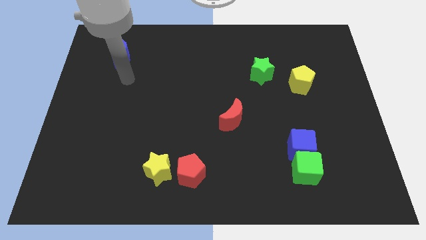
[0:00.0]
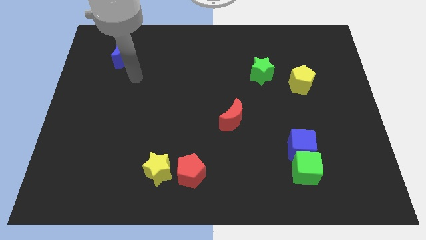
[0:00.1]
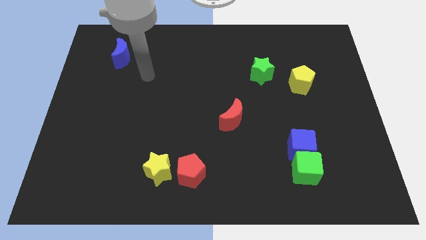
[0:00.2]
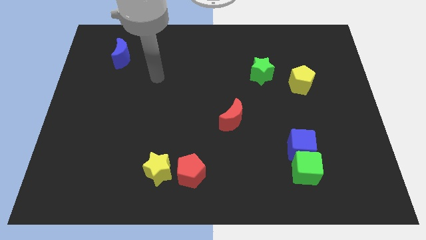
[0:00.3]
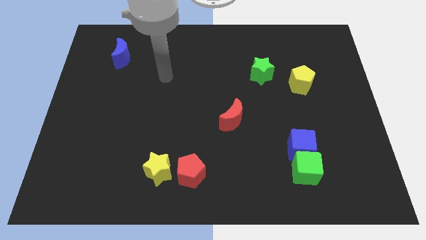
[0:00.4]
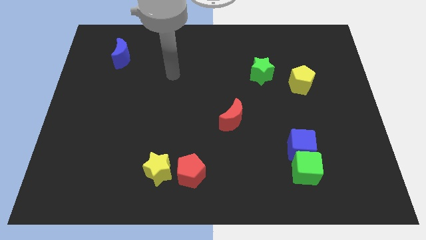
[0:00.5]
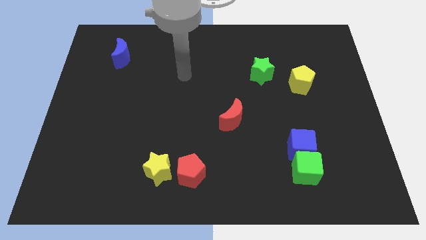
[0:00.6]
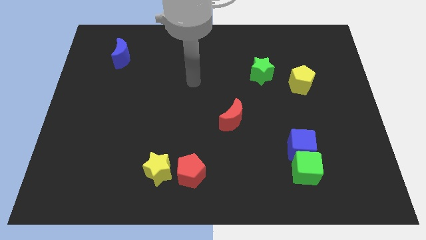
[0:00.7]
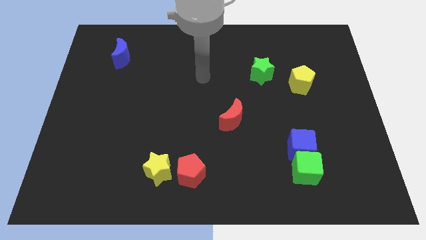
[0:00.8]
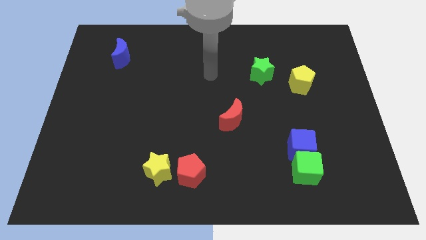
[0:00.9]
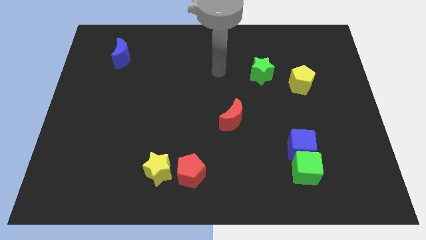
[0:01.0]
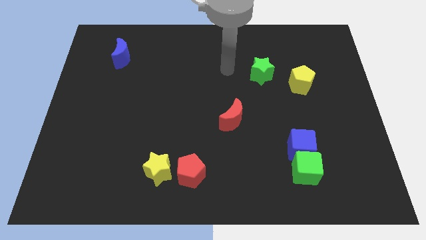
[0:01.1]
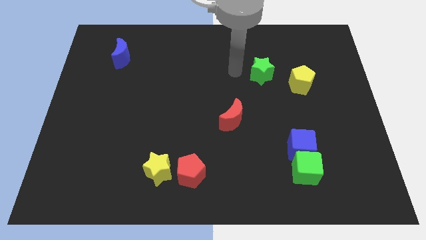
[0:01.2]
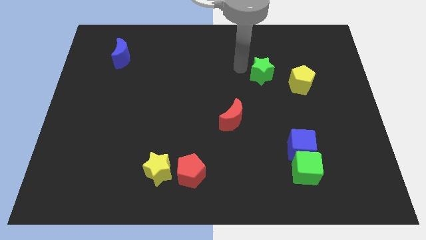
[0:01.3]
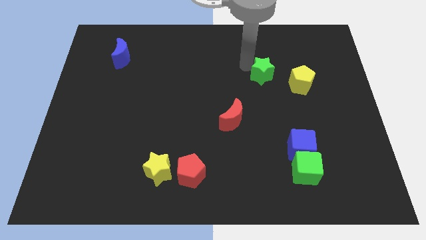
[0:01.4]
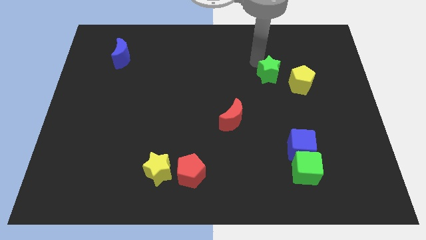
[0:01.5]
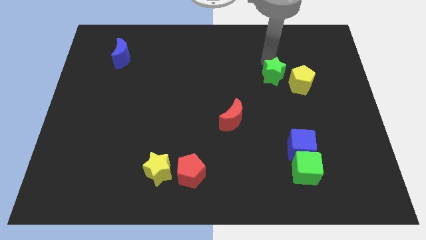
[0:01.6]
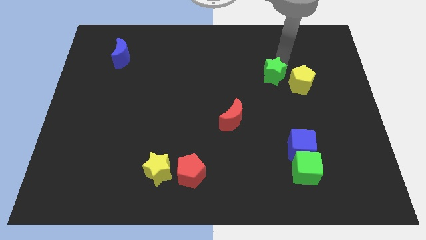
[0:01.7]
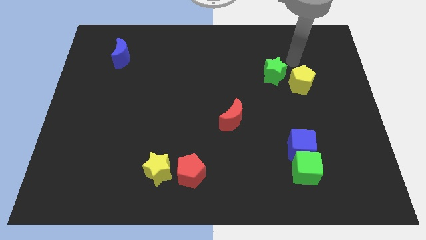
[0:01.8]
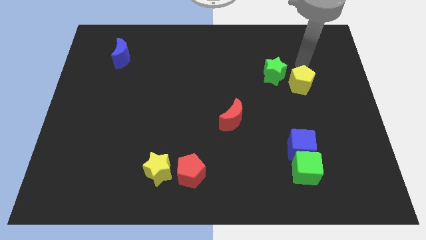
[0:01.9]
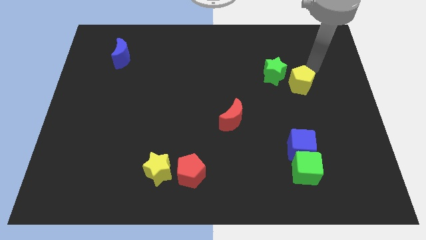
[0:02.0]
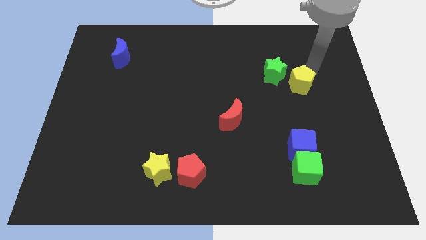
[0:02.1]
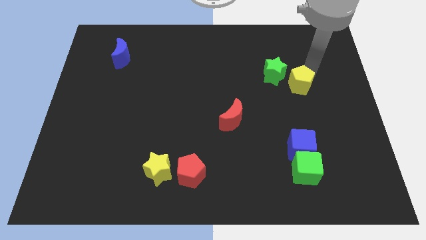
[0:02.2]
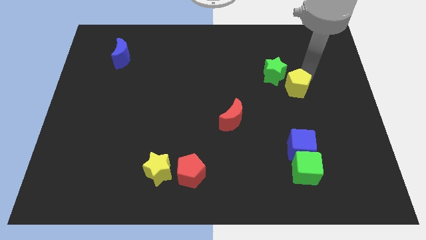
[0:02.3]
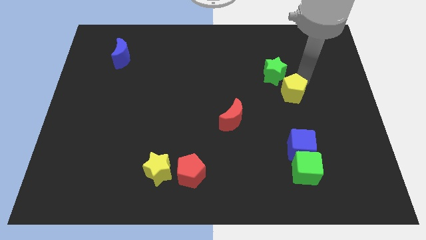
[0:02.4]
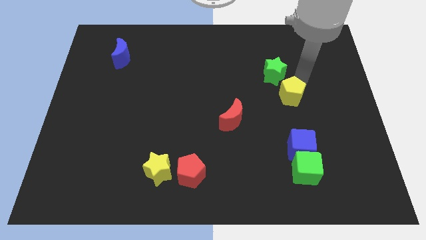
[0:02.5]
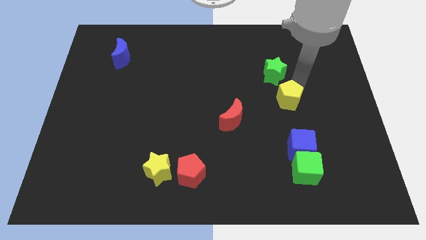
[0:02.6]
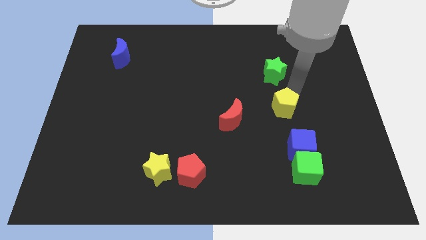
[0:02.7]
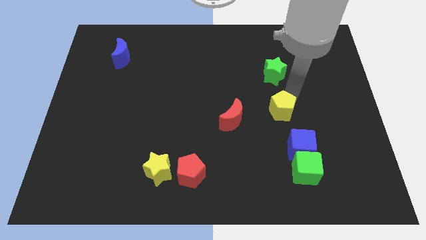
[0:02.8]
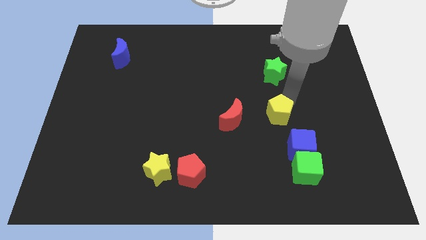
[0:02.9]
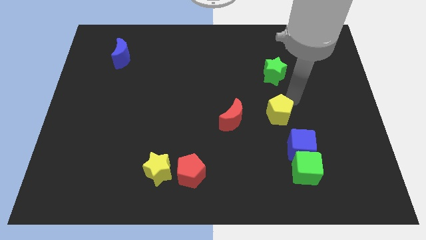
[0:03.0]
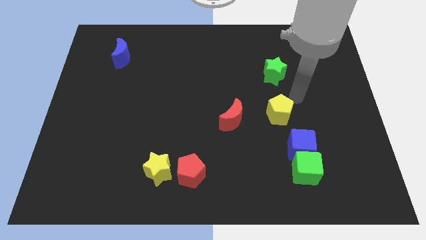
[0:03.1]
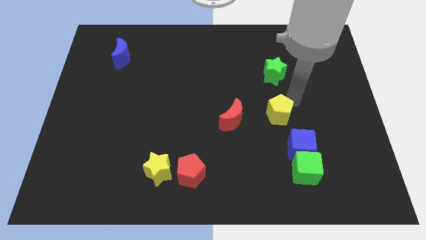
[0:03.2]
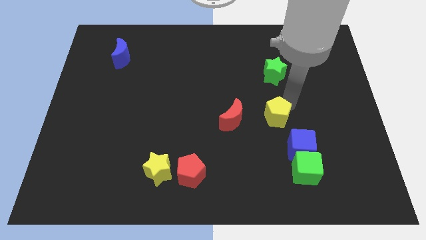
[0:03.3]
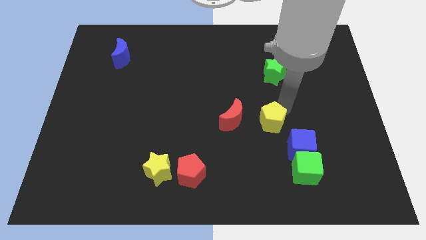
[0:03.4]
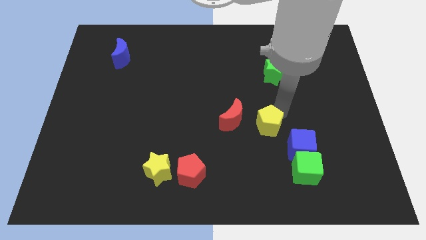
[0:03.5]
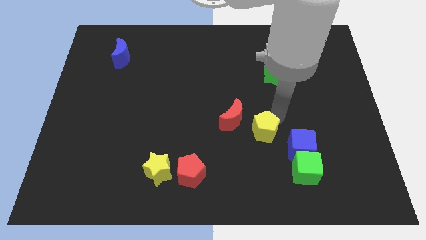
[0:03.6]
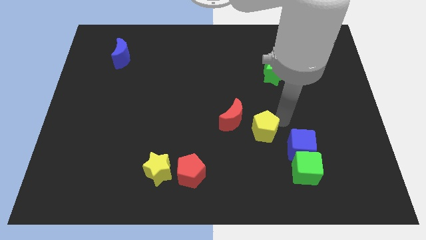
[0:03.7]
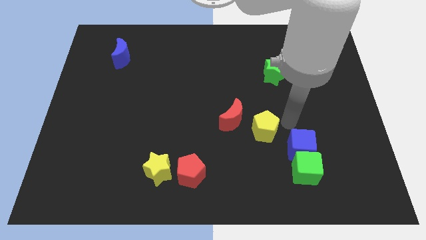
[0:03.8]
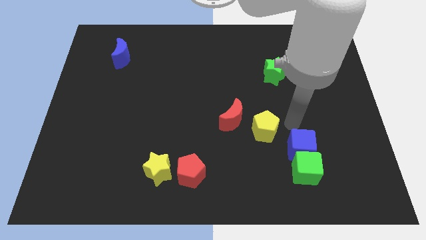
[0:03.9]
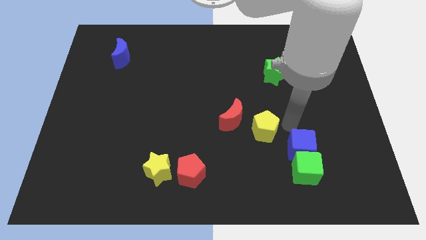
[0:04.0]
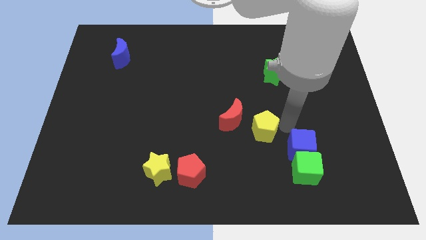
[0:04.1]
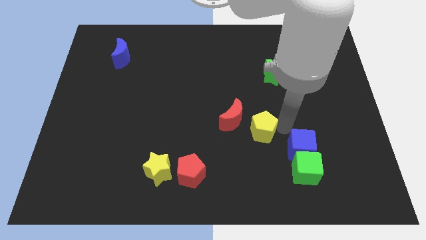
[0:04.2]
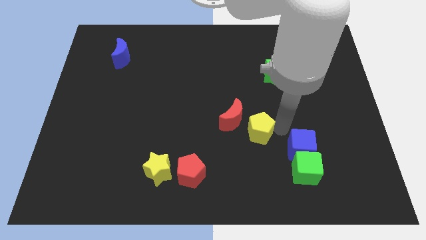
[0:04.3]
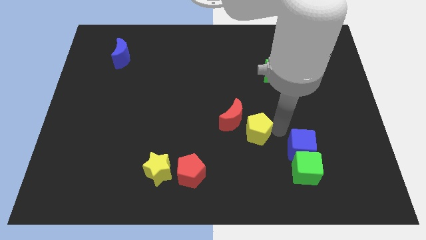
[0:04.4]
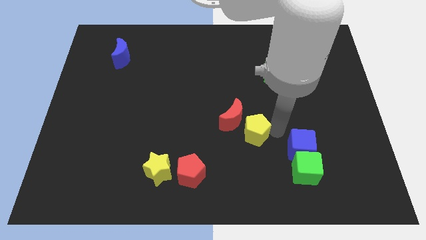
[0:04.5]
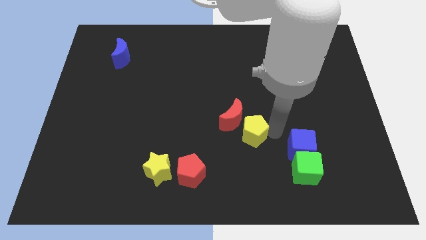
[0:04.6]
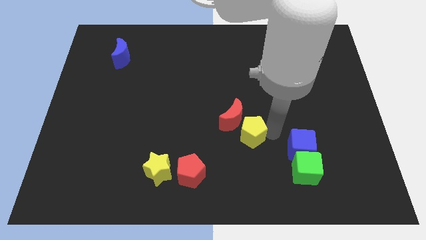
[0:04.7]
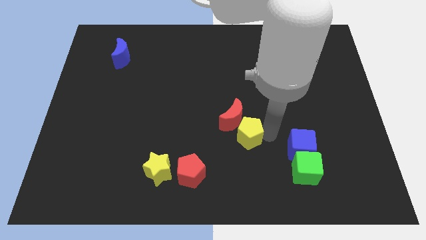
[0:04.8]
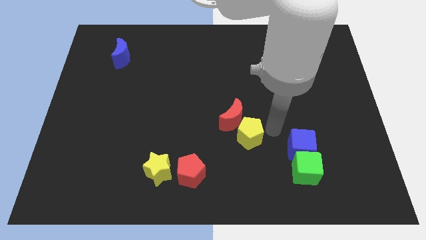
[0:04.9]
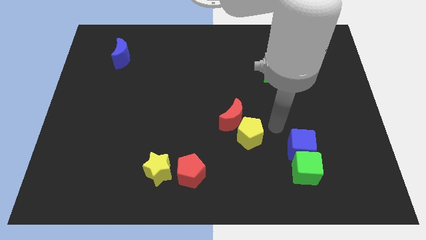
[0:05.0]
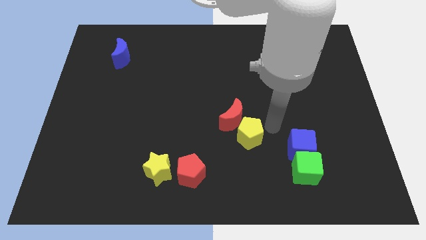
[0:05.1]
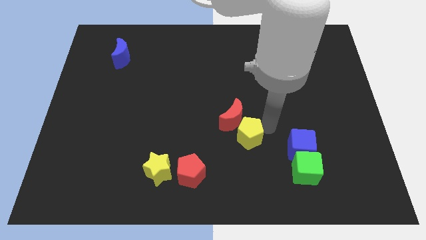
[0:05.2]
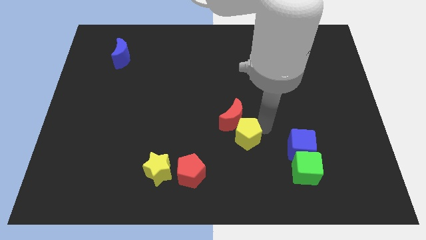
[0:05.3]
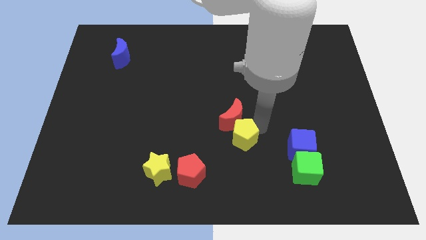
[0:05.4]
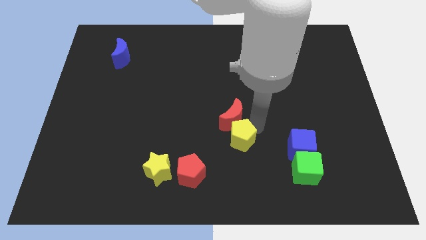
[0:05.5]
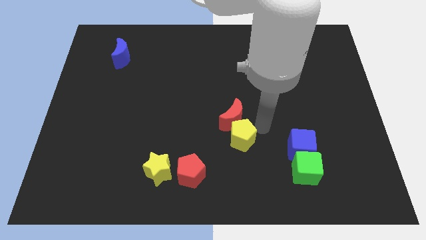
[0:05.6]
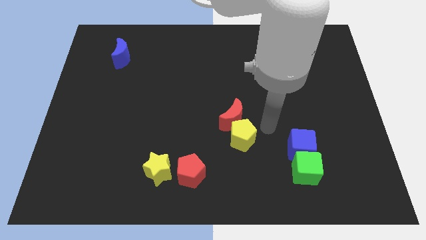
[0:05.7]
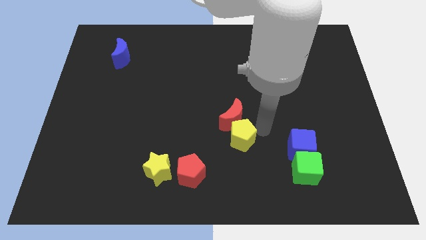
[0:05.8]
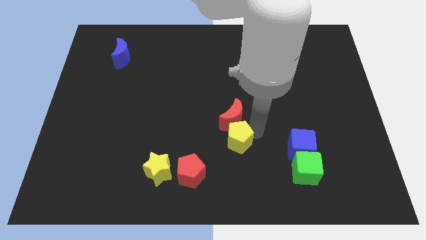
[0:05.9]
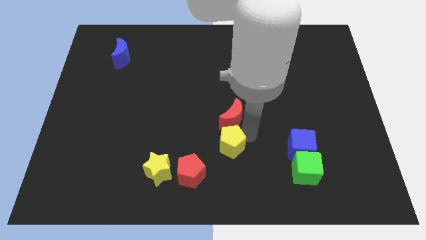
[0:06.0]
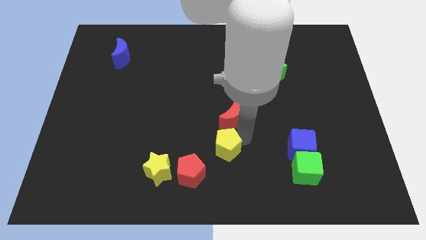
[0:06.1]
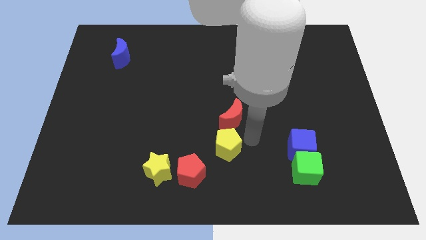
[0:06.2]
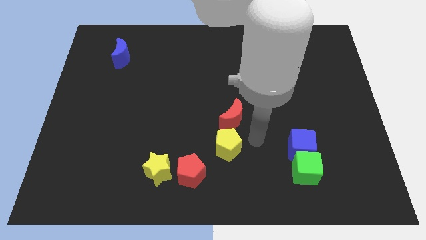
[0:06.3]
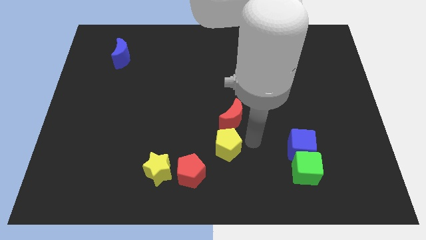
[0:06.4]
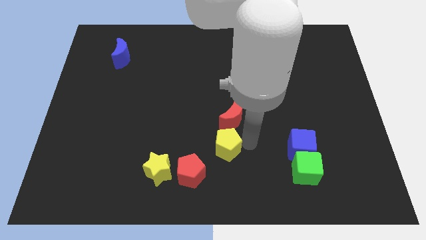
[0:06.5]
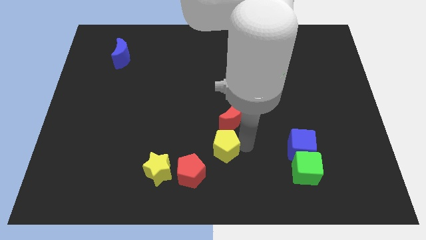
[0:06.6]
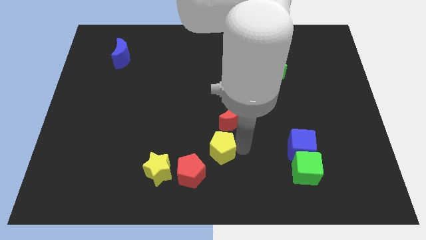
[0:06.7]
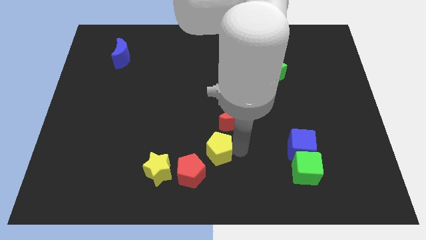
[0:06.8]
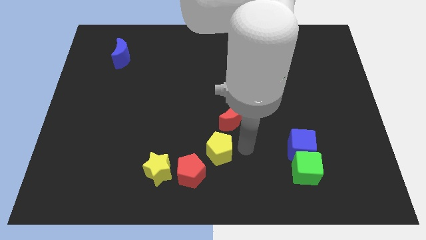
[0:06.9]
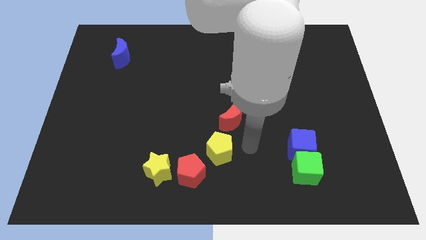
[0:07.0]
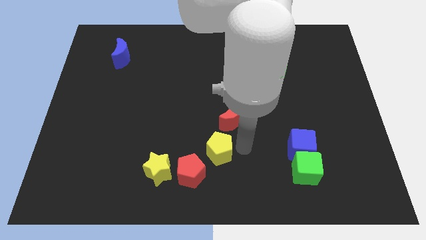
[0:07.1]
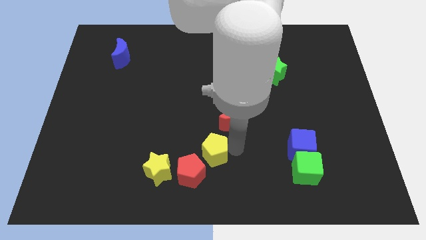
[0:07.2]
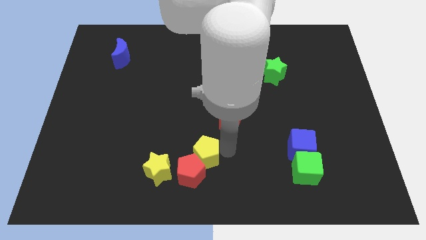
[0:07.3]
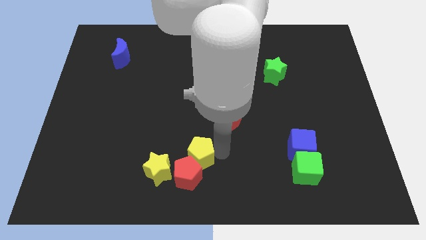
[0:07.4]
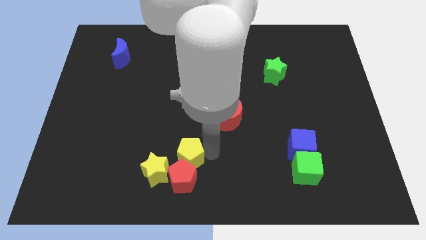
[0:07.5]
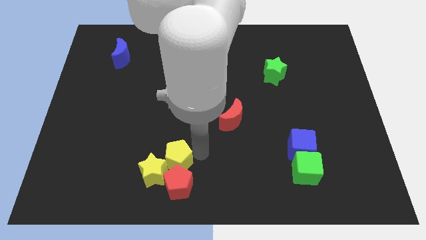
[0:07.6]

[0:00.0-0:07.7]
put the yellow pentagon next to the yellow star

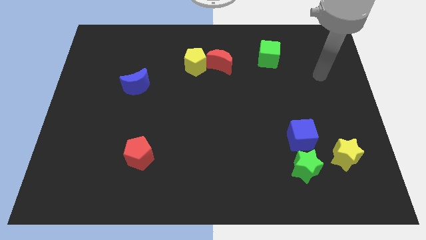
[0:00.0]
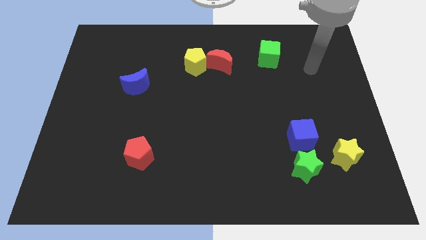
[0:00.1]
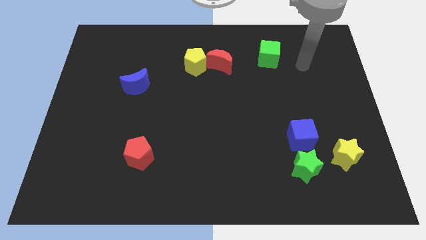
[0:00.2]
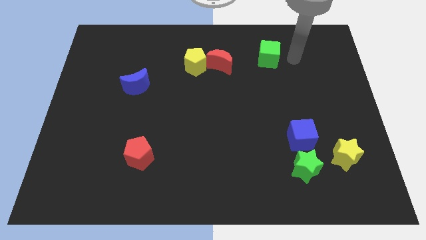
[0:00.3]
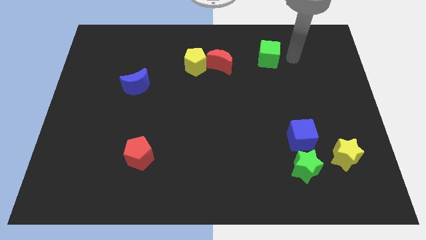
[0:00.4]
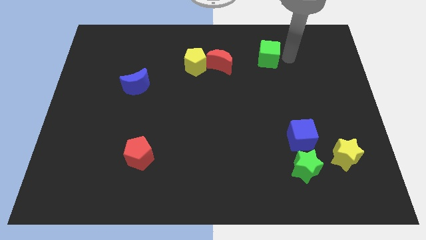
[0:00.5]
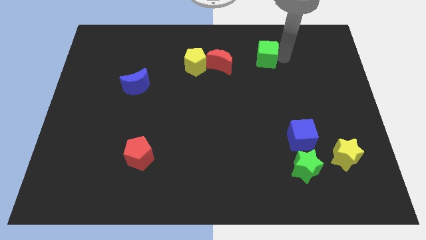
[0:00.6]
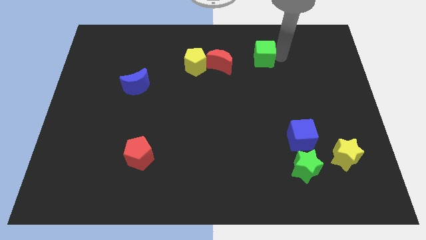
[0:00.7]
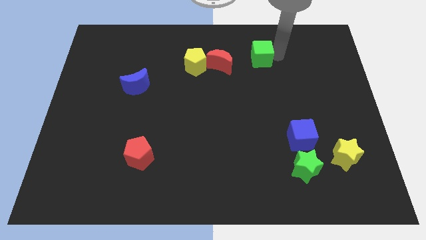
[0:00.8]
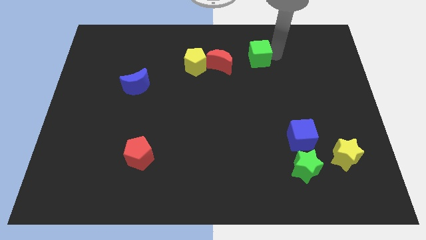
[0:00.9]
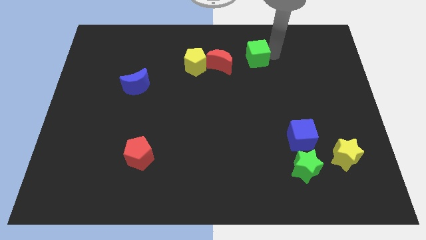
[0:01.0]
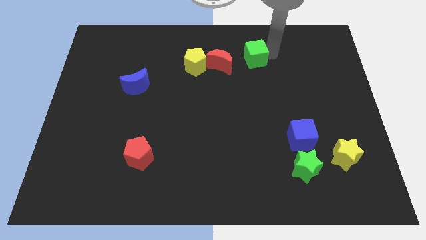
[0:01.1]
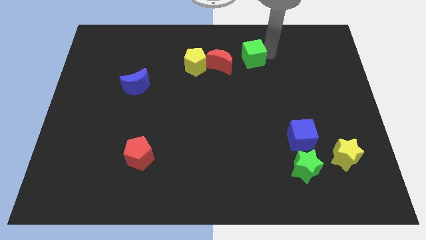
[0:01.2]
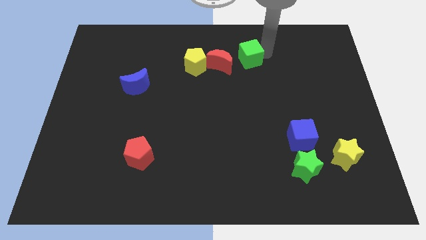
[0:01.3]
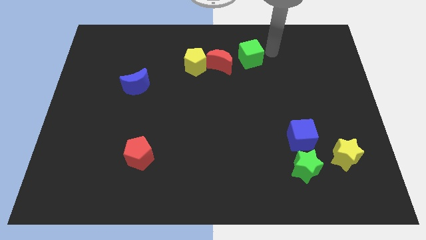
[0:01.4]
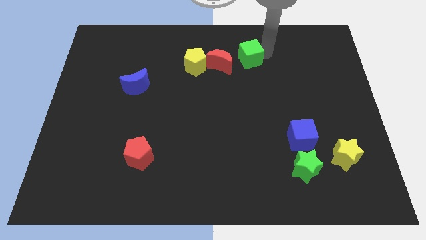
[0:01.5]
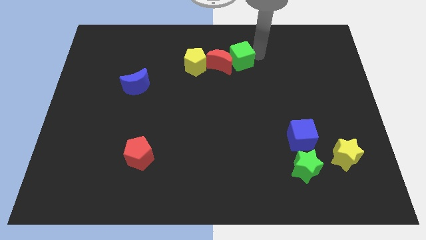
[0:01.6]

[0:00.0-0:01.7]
push the green cube towards the red moon
